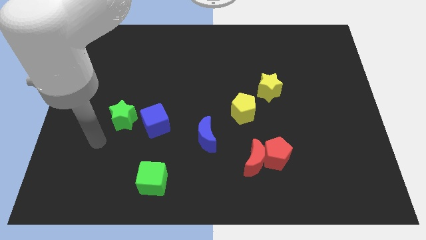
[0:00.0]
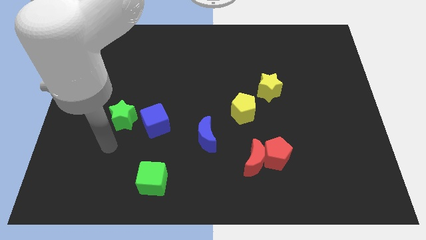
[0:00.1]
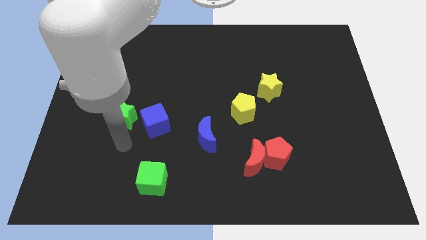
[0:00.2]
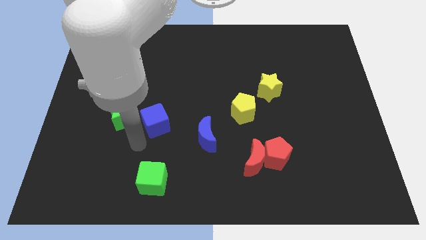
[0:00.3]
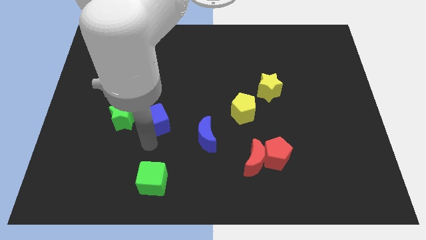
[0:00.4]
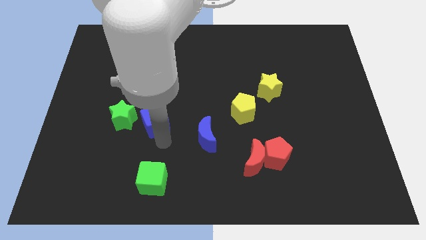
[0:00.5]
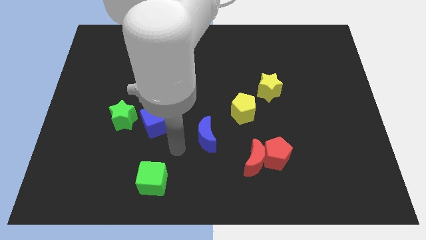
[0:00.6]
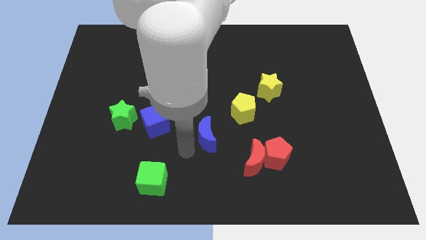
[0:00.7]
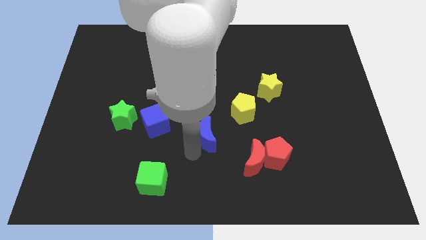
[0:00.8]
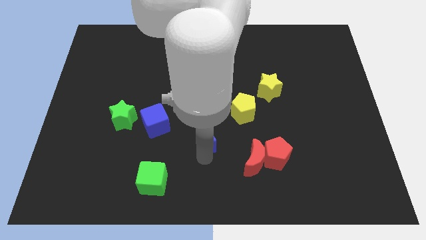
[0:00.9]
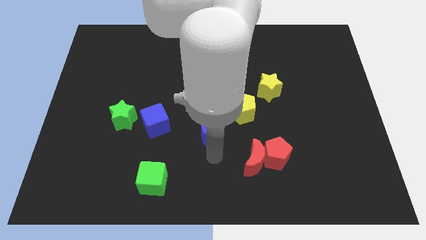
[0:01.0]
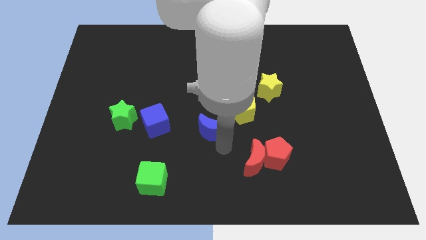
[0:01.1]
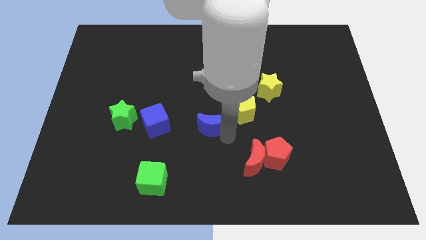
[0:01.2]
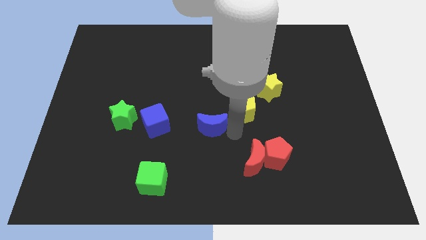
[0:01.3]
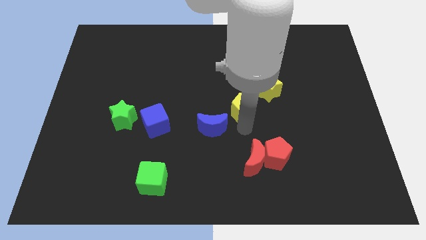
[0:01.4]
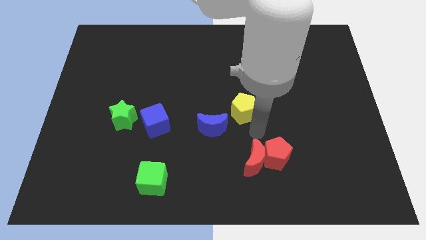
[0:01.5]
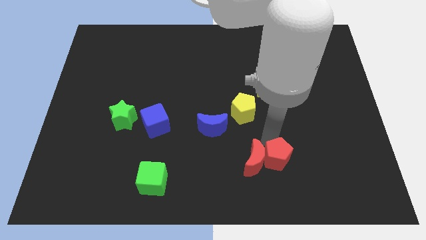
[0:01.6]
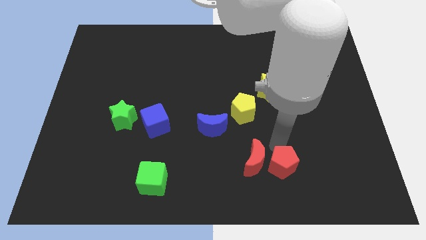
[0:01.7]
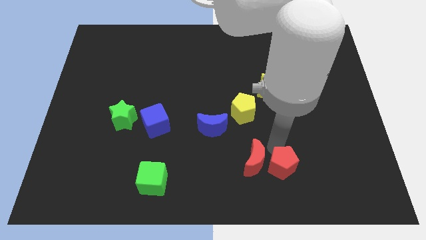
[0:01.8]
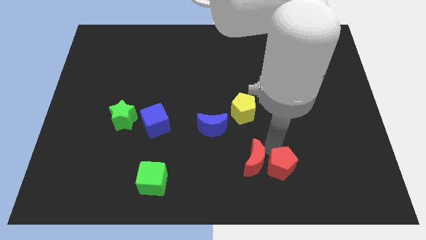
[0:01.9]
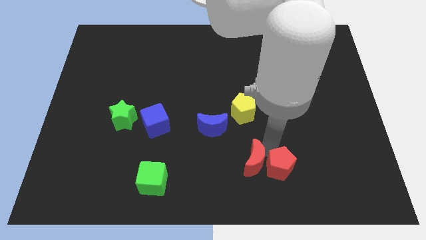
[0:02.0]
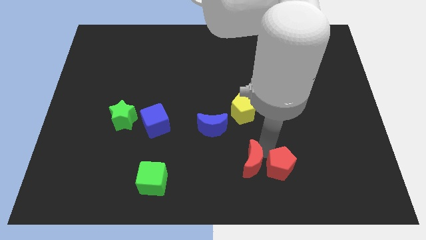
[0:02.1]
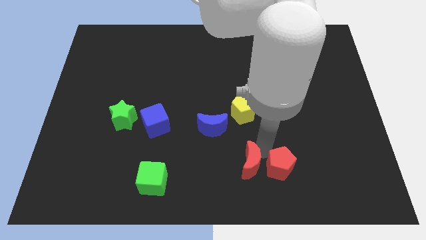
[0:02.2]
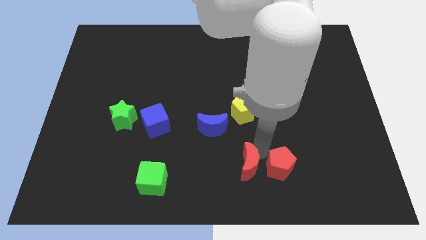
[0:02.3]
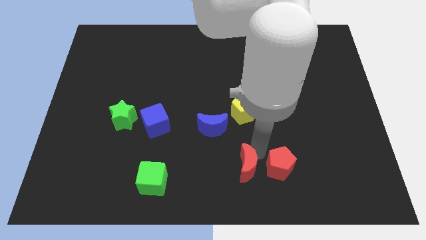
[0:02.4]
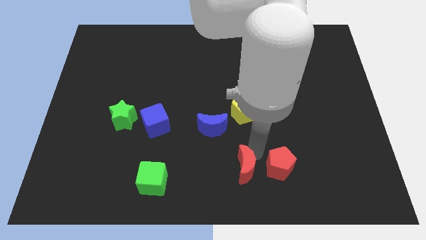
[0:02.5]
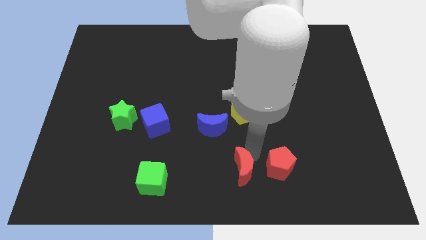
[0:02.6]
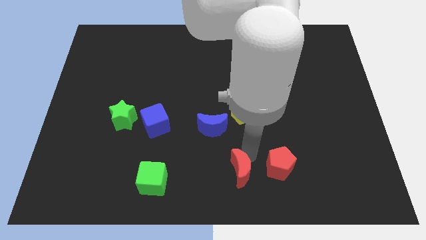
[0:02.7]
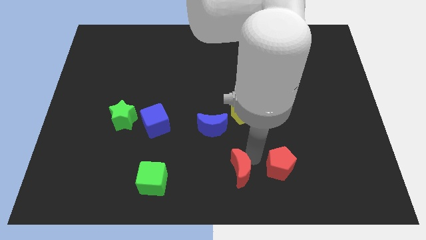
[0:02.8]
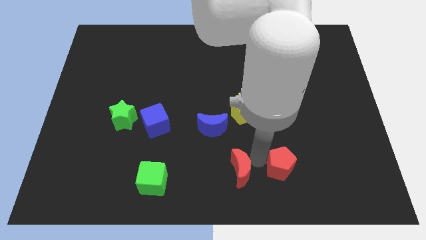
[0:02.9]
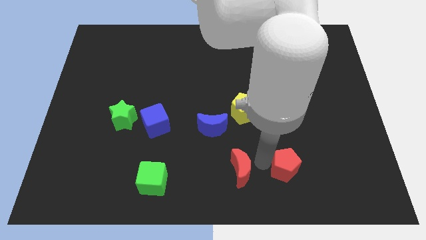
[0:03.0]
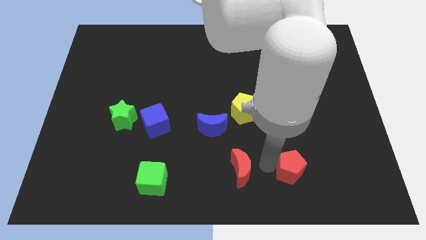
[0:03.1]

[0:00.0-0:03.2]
move the red moon away from the red pentagon

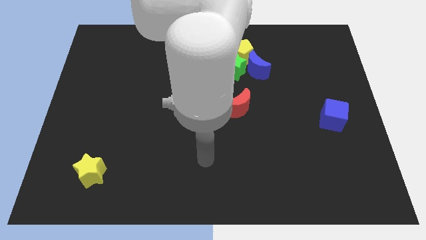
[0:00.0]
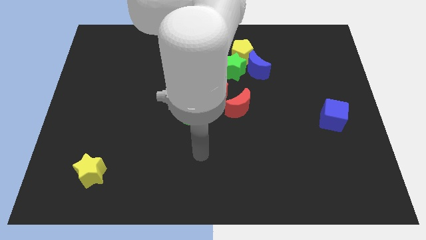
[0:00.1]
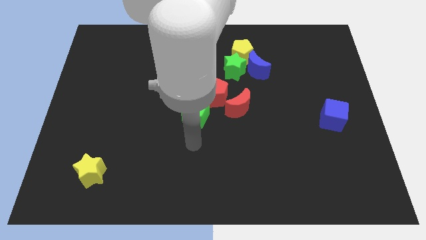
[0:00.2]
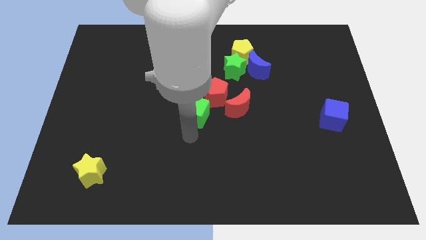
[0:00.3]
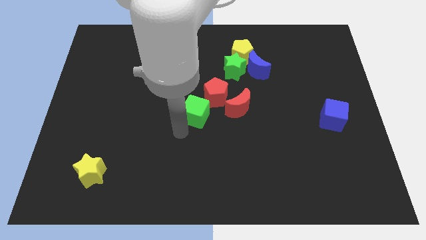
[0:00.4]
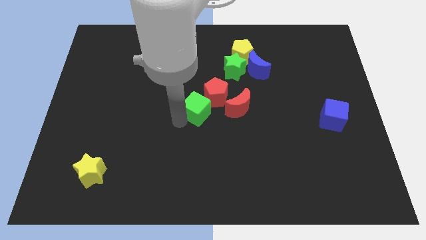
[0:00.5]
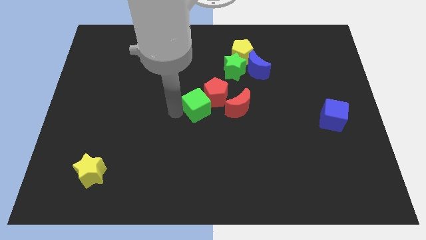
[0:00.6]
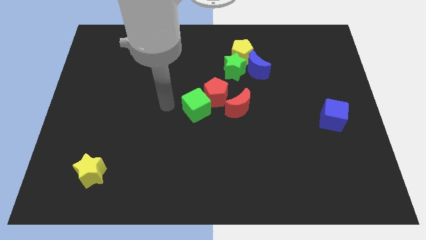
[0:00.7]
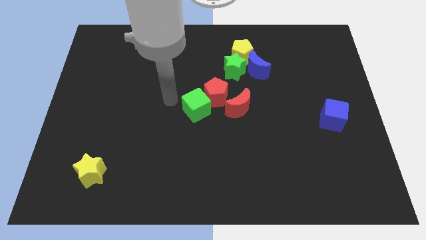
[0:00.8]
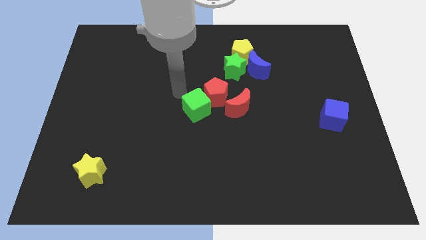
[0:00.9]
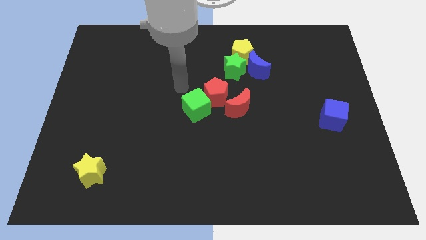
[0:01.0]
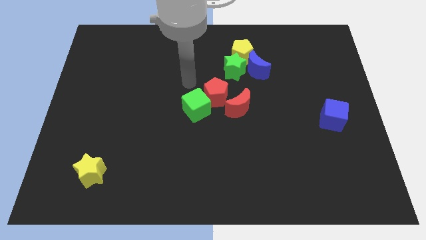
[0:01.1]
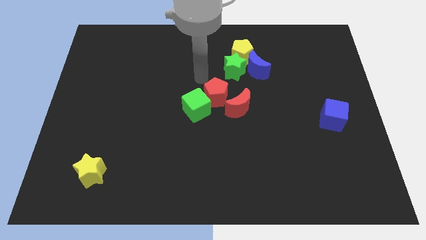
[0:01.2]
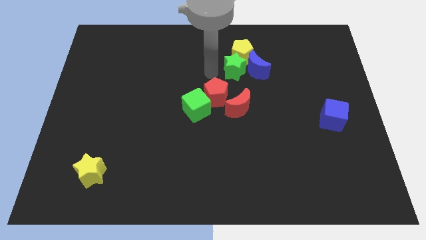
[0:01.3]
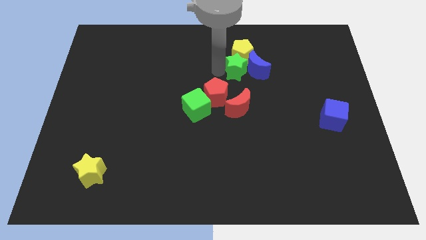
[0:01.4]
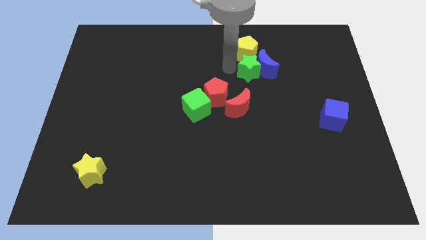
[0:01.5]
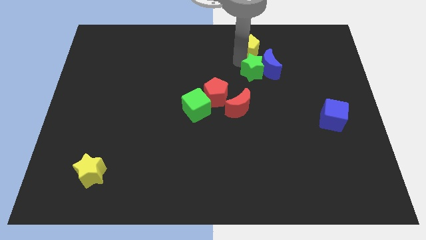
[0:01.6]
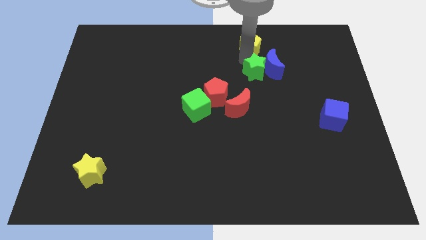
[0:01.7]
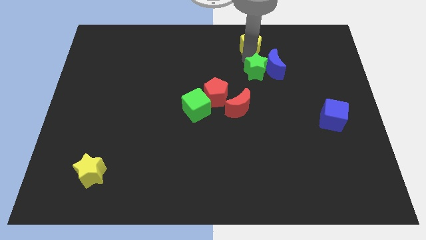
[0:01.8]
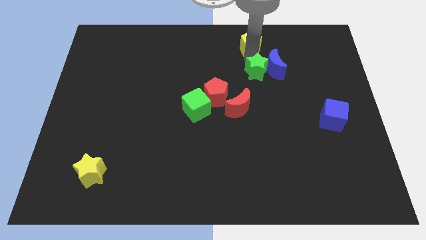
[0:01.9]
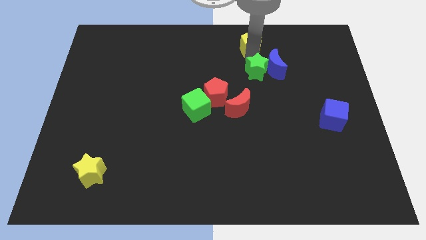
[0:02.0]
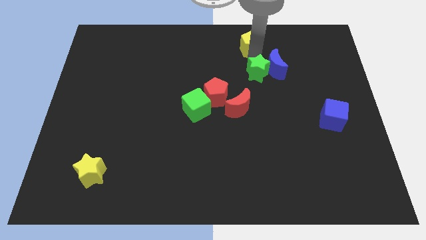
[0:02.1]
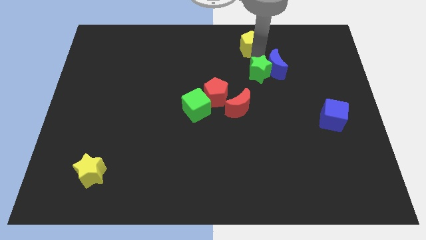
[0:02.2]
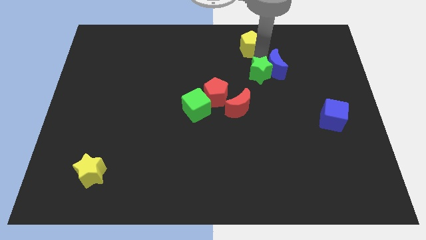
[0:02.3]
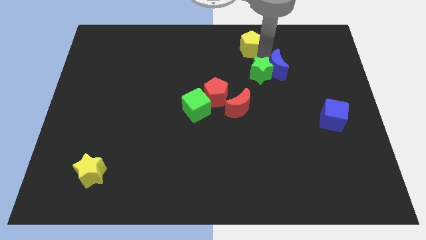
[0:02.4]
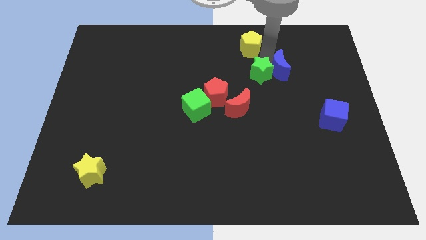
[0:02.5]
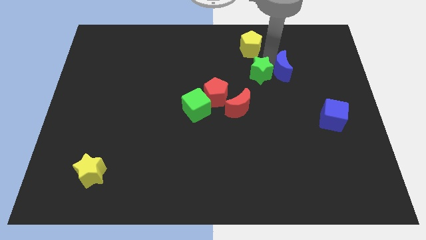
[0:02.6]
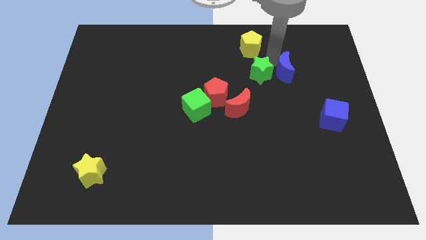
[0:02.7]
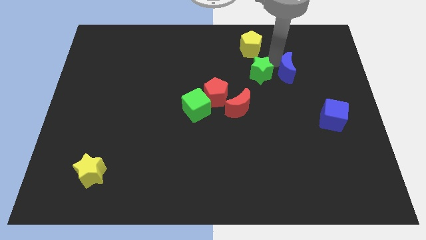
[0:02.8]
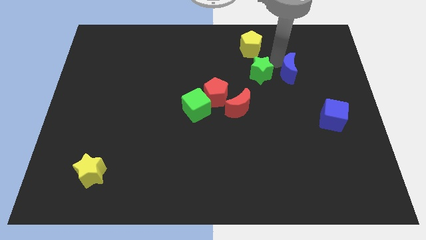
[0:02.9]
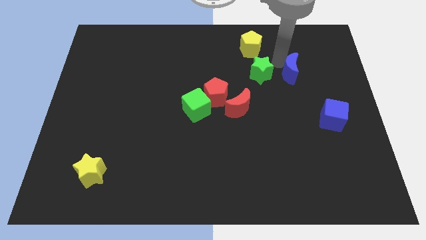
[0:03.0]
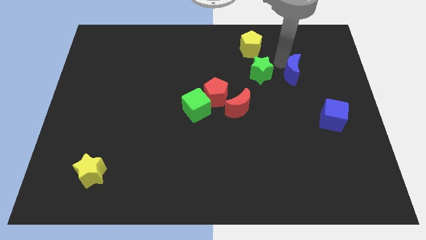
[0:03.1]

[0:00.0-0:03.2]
move the blue moon away from the green star and yellow pentagon

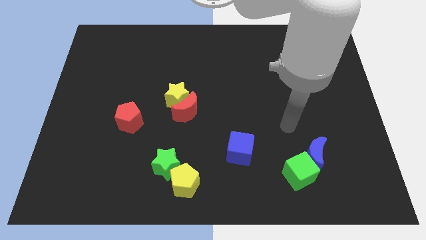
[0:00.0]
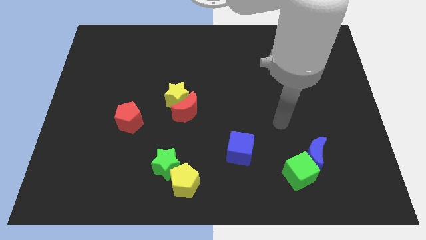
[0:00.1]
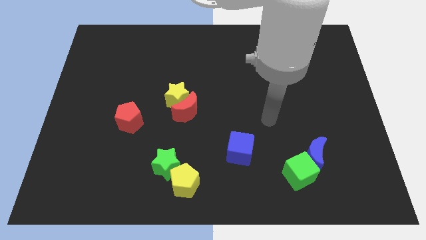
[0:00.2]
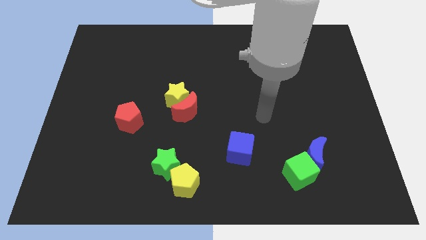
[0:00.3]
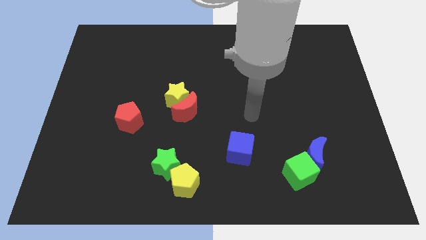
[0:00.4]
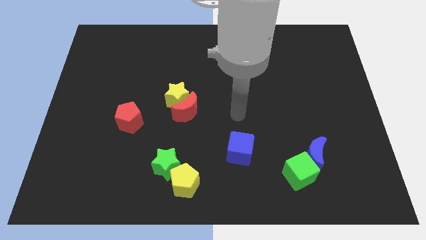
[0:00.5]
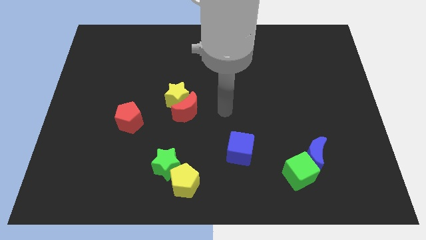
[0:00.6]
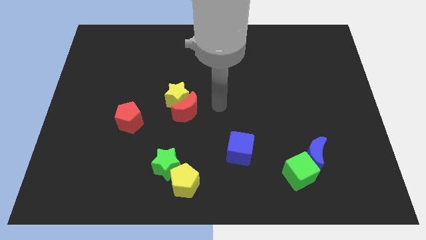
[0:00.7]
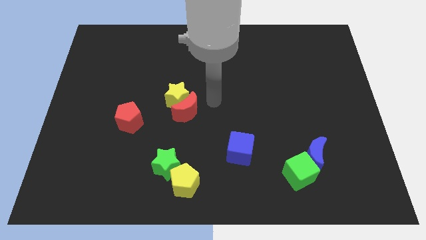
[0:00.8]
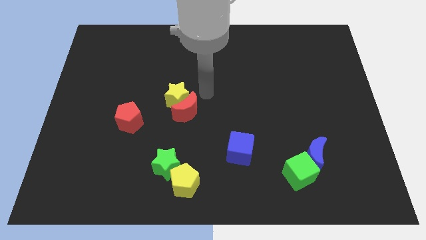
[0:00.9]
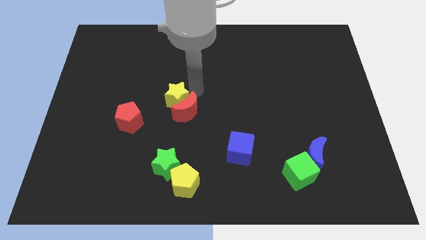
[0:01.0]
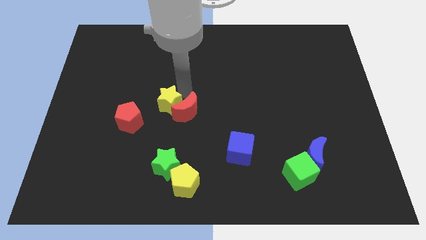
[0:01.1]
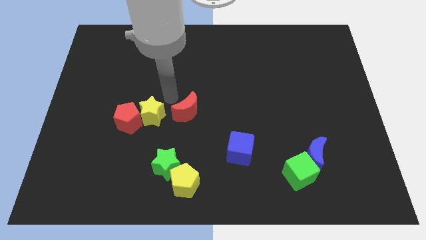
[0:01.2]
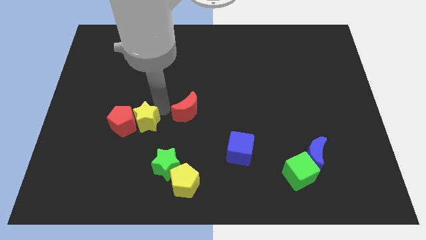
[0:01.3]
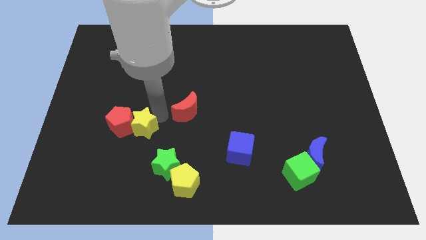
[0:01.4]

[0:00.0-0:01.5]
move the red moon away from the yellow star

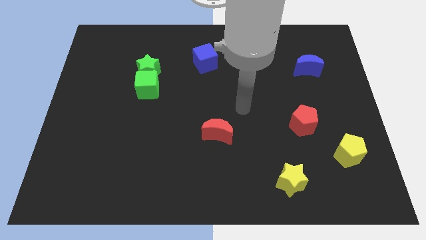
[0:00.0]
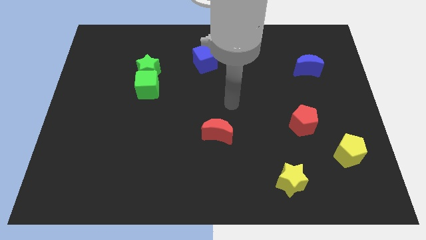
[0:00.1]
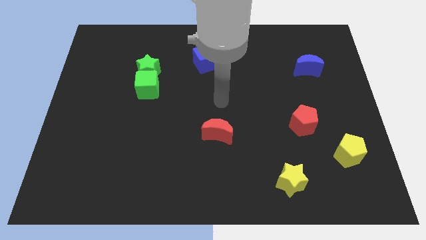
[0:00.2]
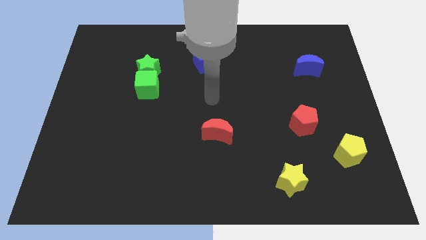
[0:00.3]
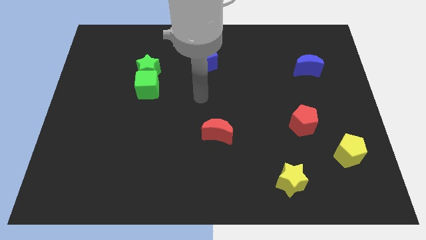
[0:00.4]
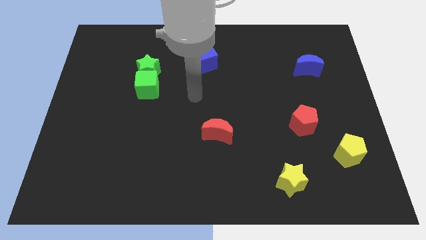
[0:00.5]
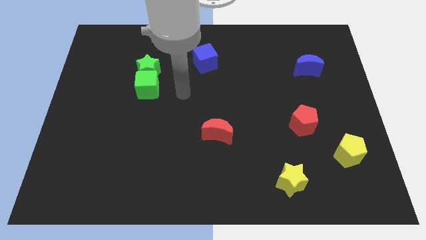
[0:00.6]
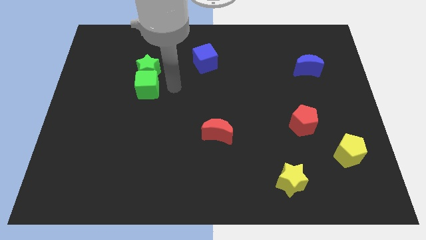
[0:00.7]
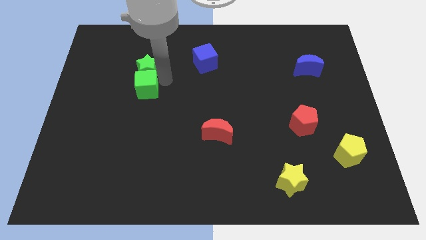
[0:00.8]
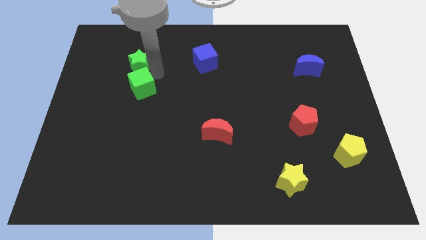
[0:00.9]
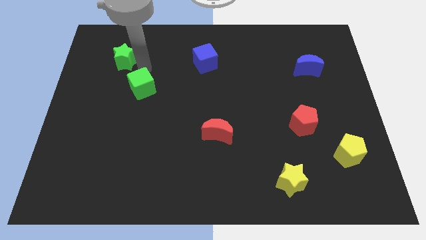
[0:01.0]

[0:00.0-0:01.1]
pull the green cube apart from the green star

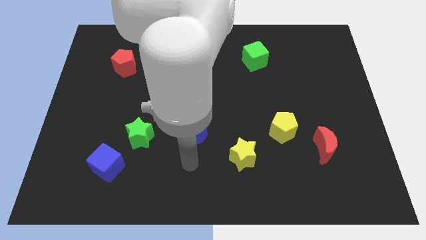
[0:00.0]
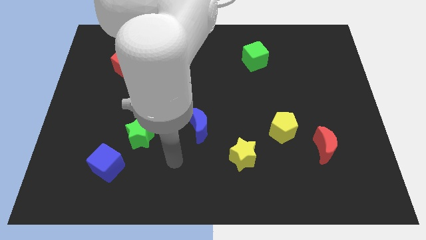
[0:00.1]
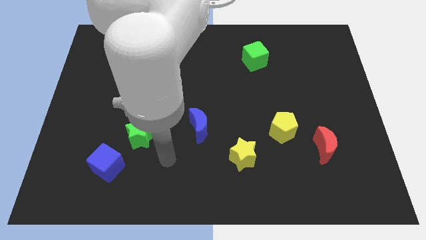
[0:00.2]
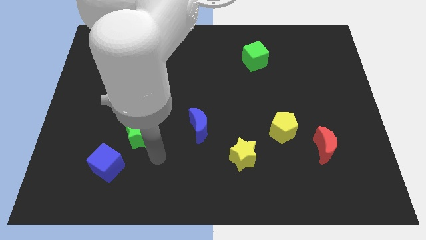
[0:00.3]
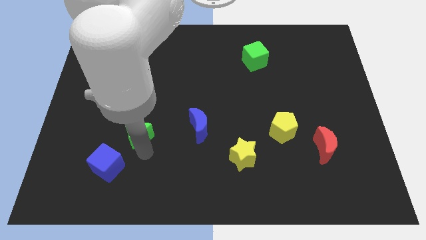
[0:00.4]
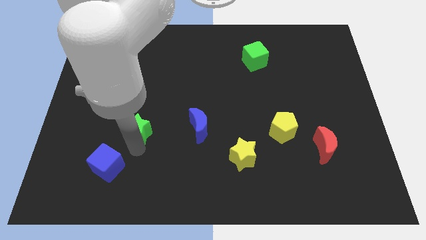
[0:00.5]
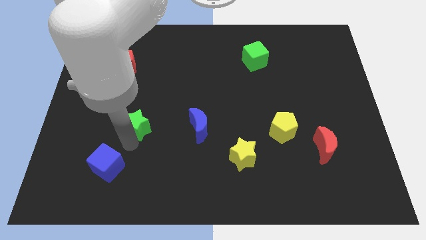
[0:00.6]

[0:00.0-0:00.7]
move the blue cube away from the green star
